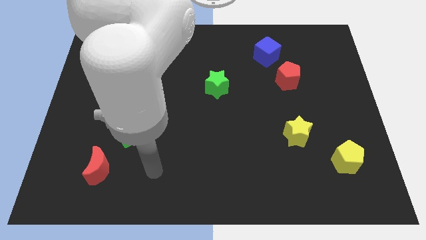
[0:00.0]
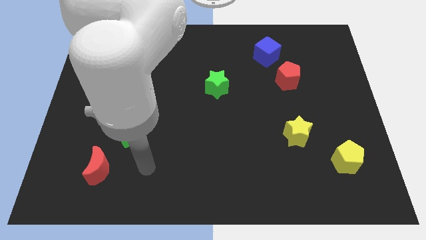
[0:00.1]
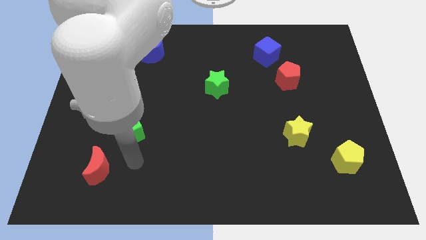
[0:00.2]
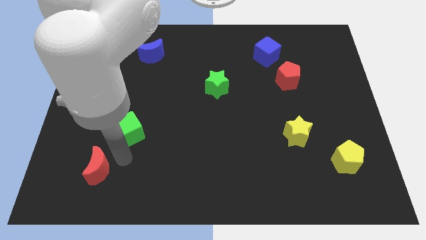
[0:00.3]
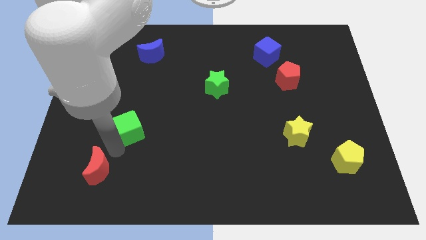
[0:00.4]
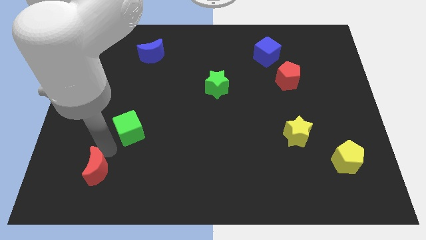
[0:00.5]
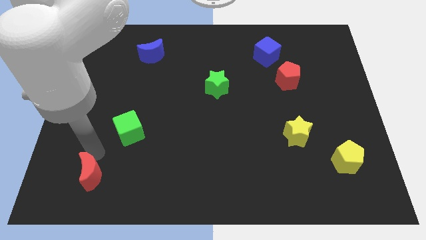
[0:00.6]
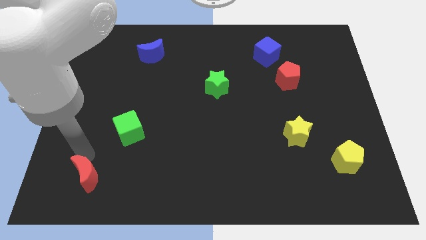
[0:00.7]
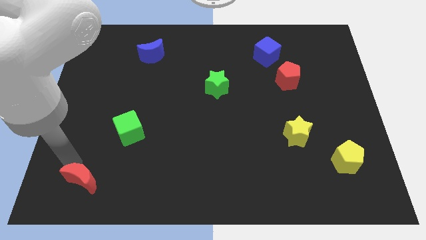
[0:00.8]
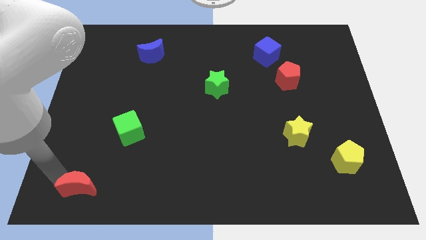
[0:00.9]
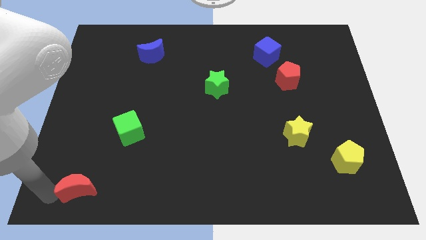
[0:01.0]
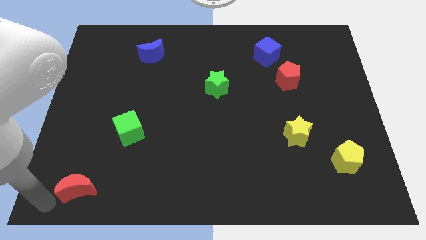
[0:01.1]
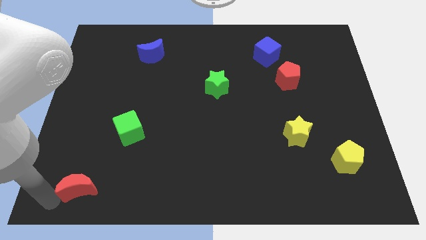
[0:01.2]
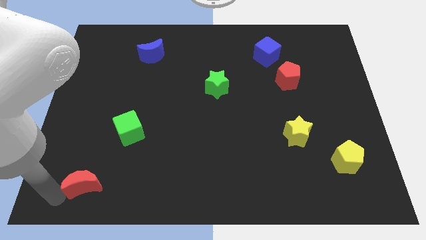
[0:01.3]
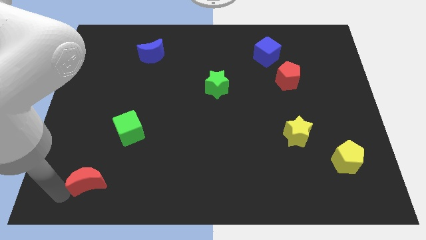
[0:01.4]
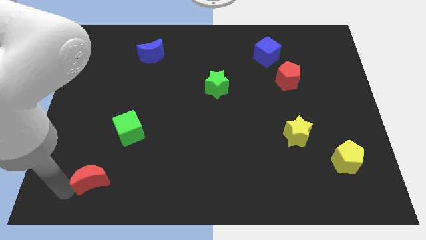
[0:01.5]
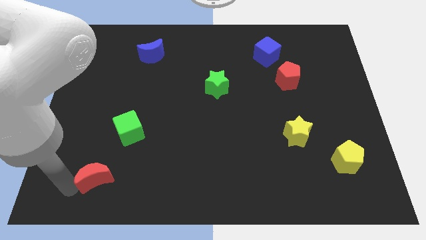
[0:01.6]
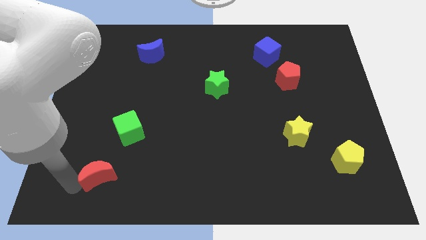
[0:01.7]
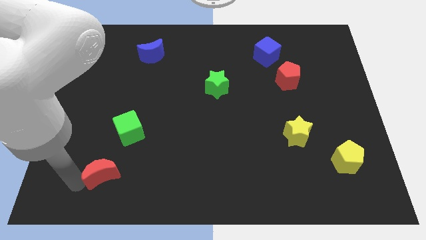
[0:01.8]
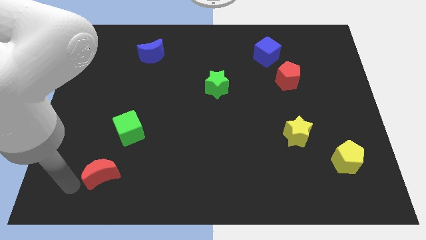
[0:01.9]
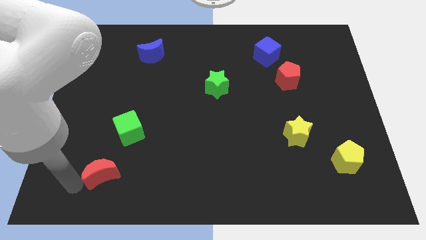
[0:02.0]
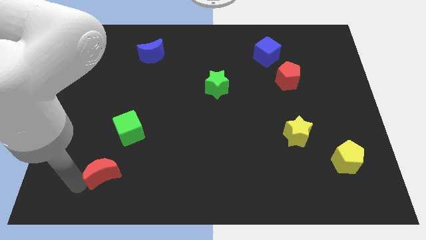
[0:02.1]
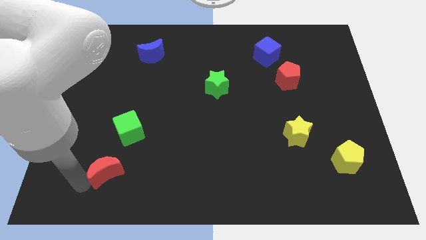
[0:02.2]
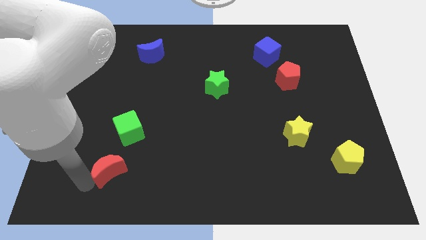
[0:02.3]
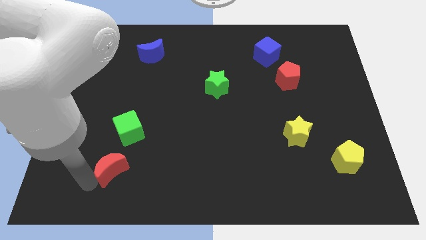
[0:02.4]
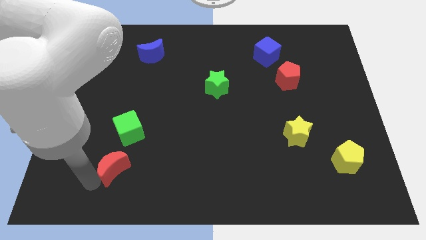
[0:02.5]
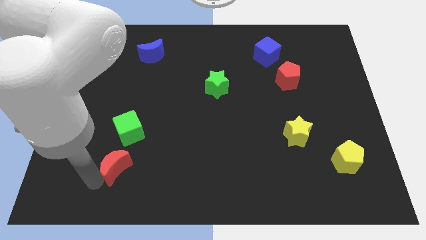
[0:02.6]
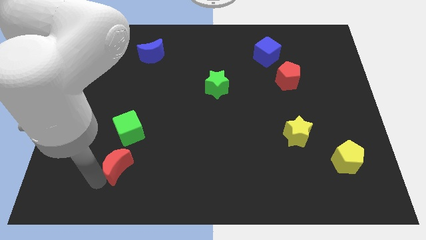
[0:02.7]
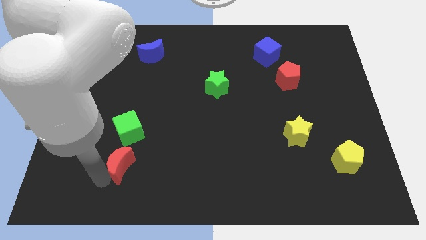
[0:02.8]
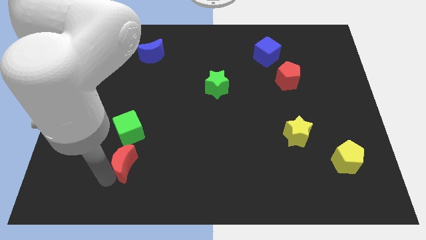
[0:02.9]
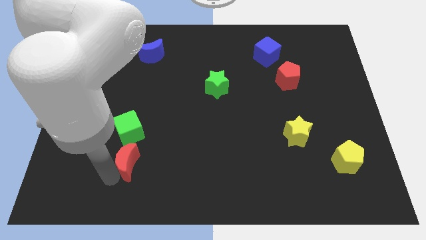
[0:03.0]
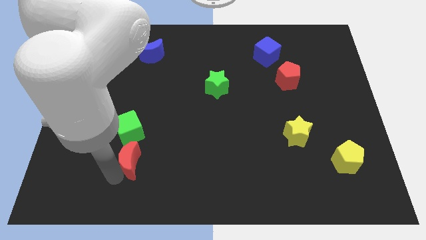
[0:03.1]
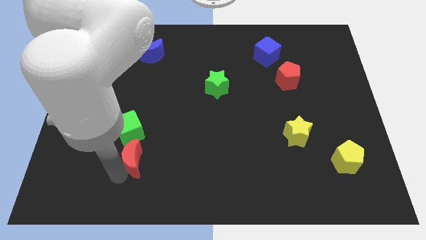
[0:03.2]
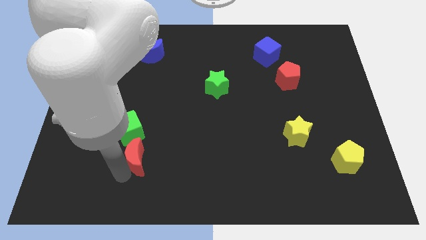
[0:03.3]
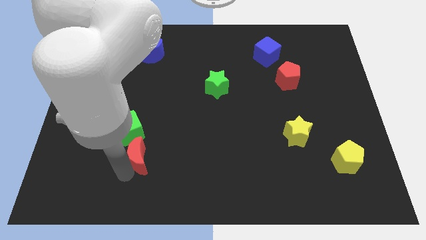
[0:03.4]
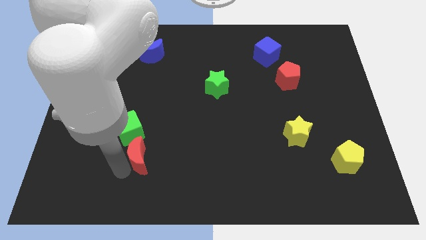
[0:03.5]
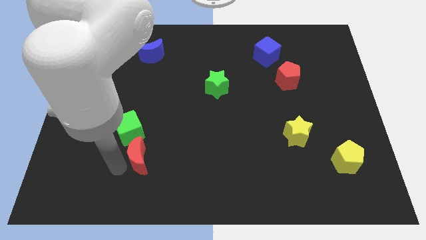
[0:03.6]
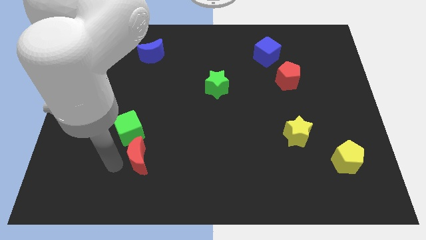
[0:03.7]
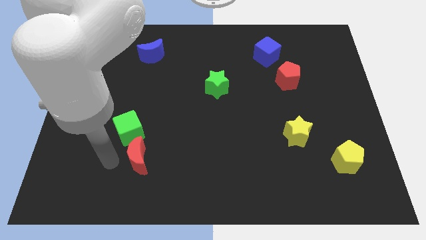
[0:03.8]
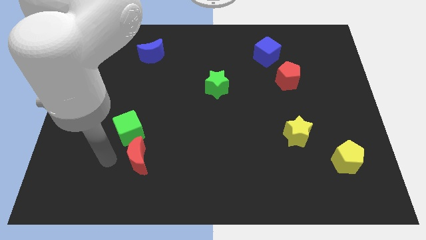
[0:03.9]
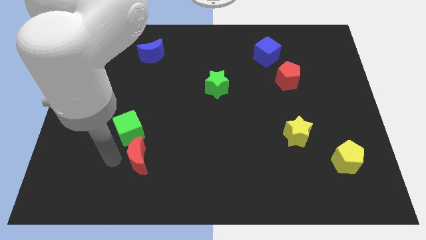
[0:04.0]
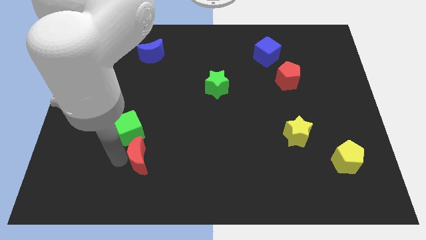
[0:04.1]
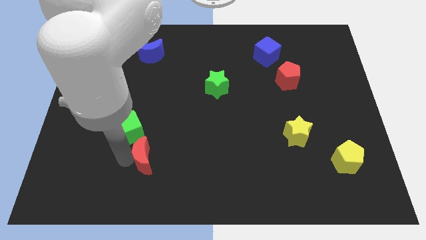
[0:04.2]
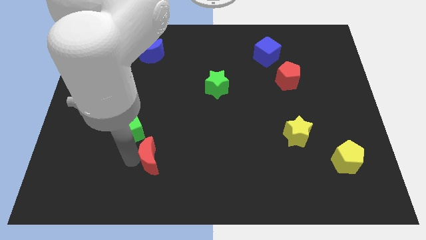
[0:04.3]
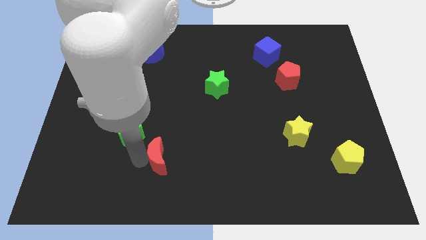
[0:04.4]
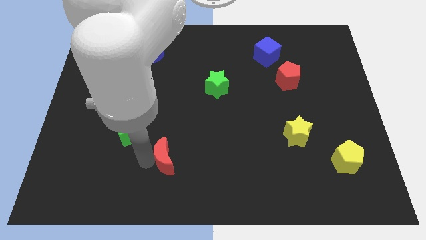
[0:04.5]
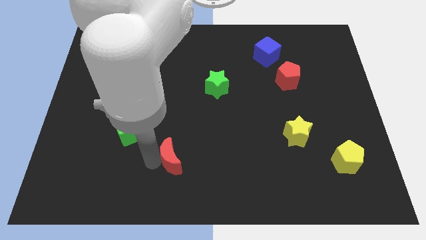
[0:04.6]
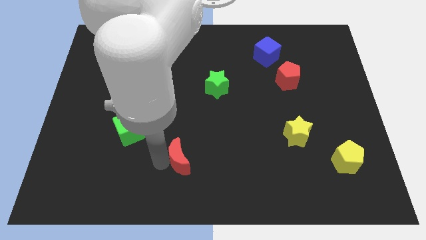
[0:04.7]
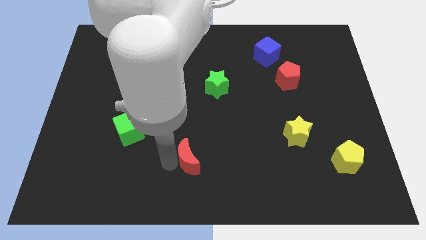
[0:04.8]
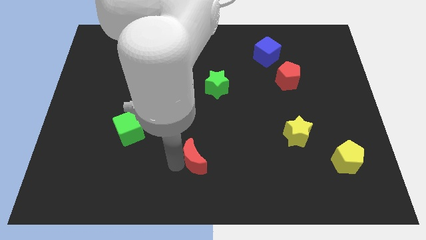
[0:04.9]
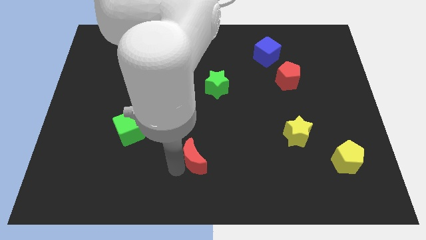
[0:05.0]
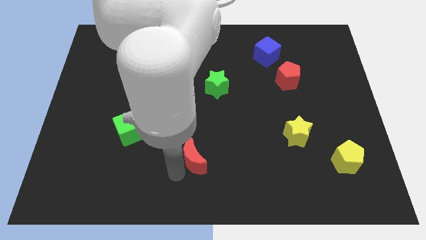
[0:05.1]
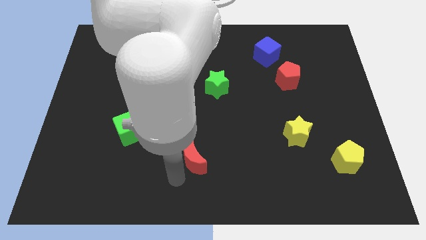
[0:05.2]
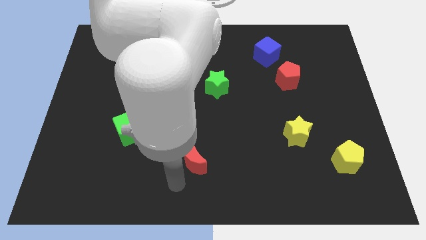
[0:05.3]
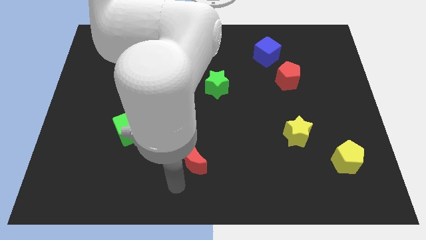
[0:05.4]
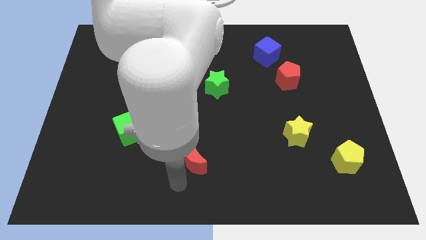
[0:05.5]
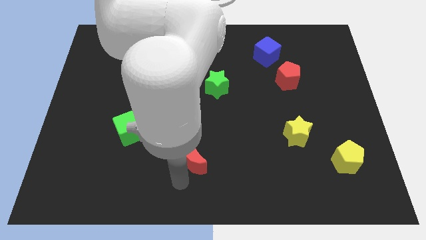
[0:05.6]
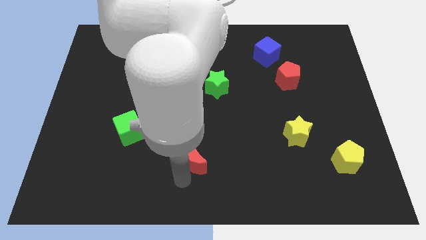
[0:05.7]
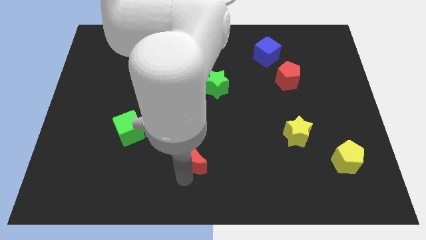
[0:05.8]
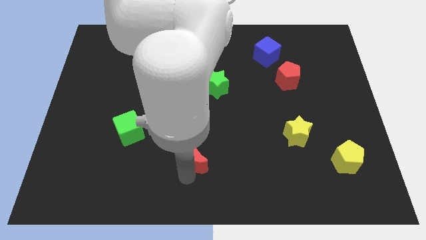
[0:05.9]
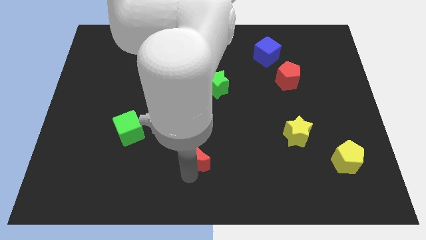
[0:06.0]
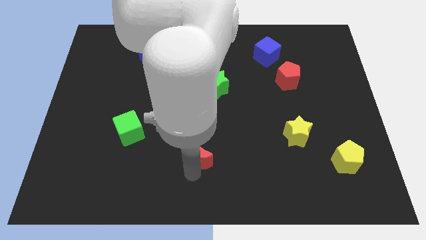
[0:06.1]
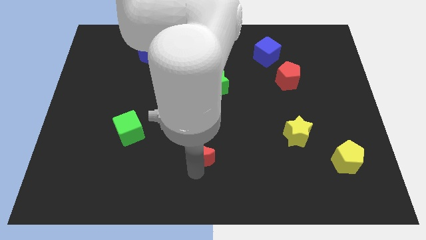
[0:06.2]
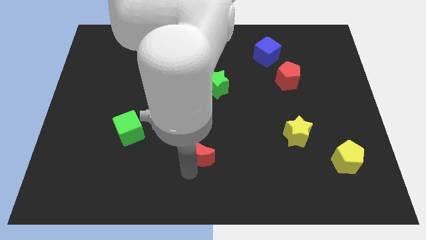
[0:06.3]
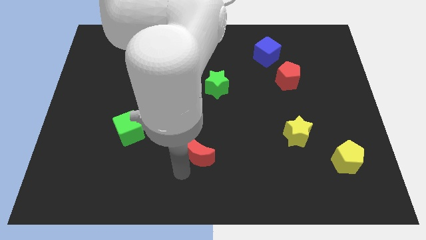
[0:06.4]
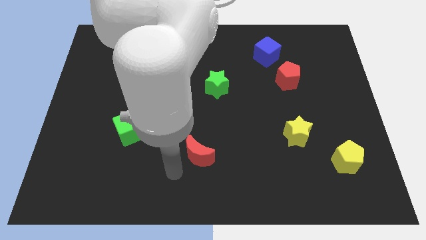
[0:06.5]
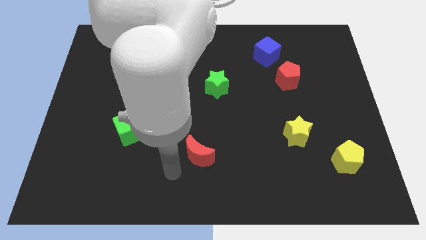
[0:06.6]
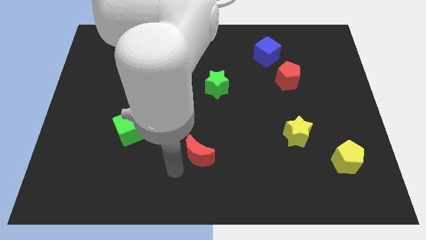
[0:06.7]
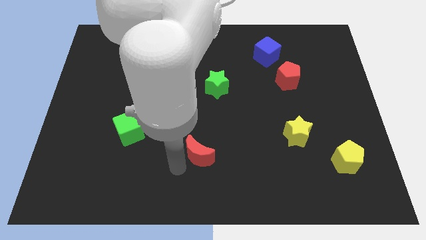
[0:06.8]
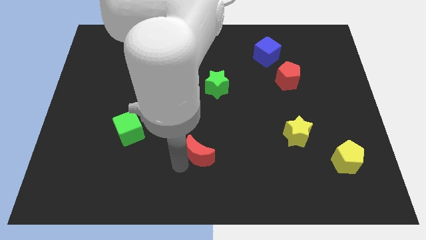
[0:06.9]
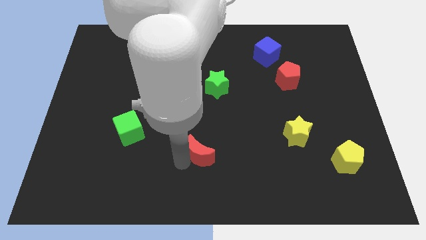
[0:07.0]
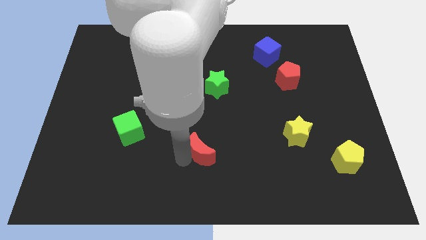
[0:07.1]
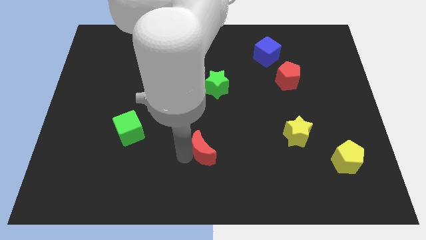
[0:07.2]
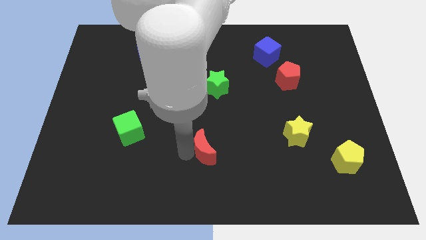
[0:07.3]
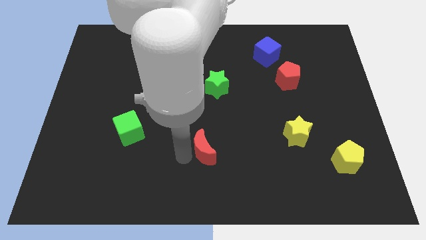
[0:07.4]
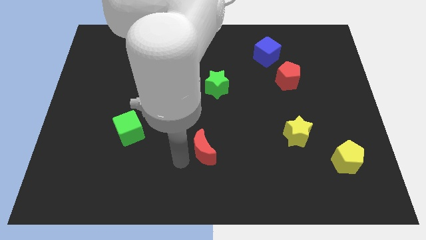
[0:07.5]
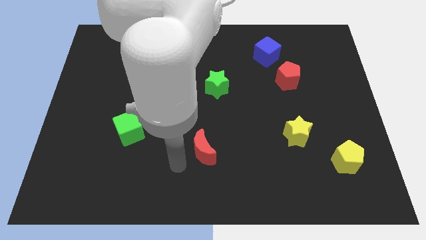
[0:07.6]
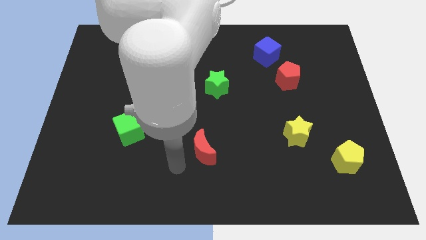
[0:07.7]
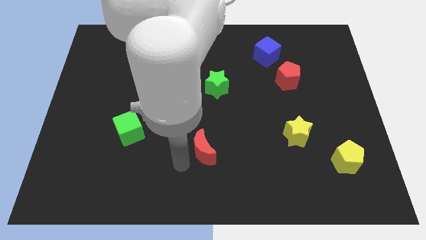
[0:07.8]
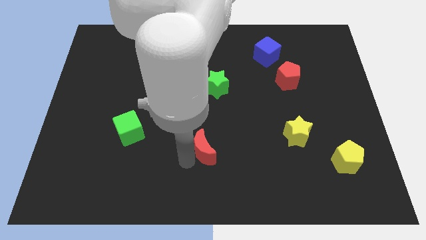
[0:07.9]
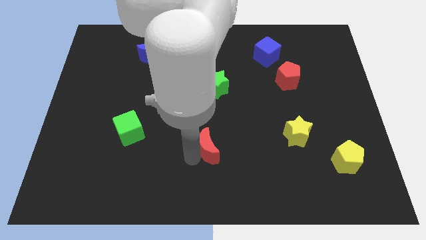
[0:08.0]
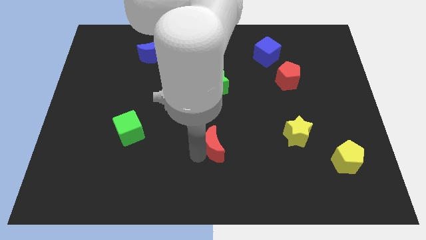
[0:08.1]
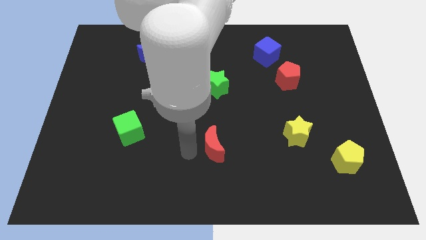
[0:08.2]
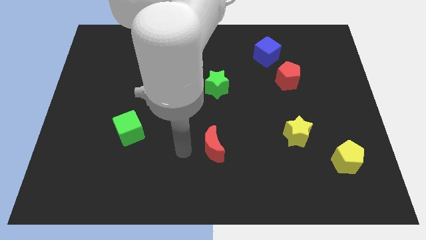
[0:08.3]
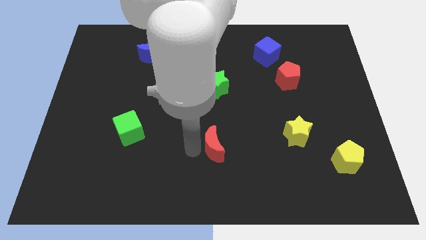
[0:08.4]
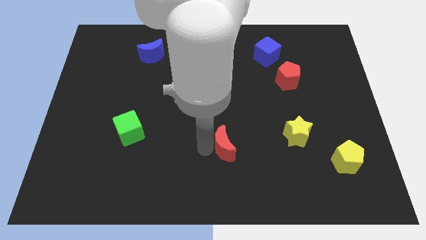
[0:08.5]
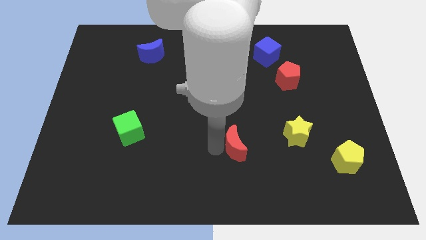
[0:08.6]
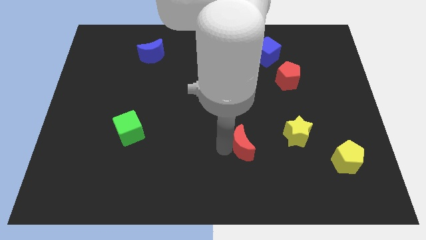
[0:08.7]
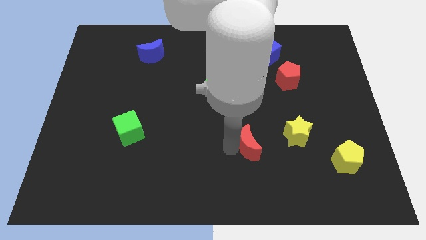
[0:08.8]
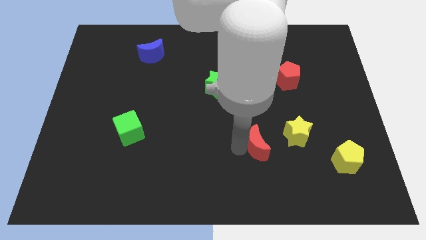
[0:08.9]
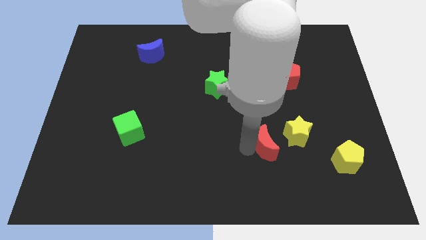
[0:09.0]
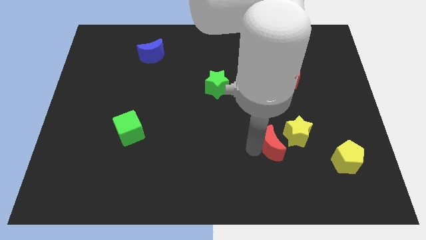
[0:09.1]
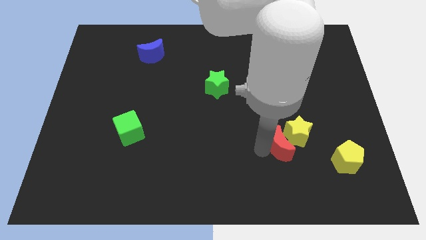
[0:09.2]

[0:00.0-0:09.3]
slide the red moon towards the yellow star
